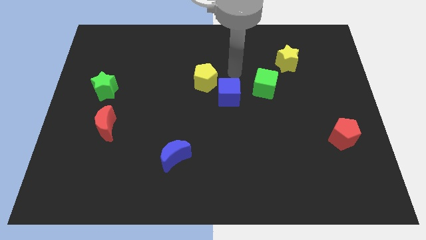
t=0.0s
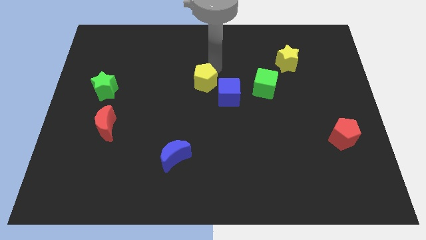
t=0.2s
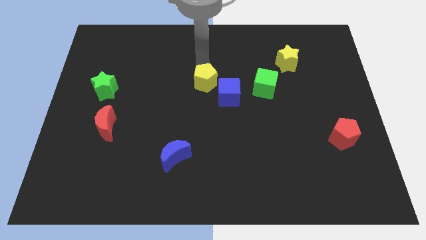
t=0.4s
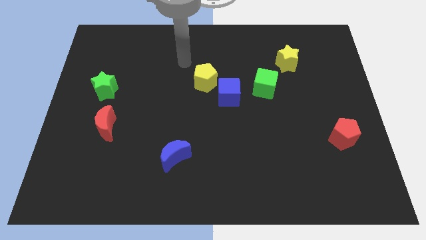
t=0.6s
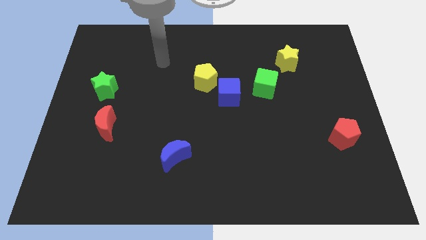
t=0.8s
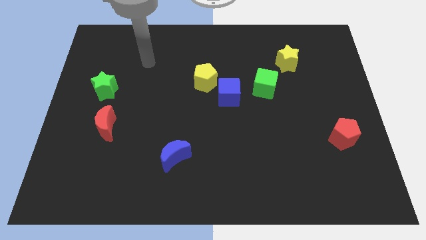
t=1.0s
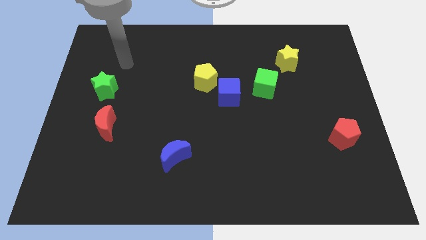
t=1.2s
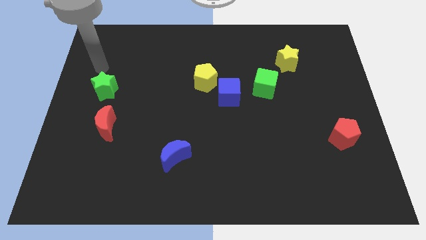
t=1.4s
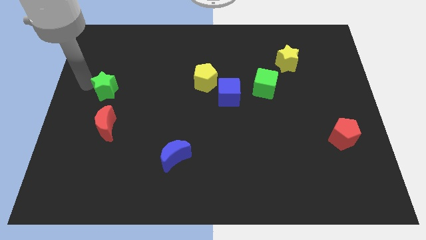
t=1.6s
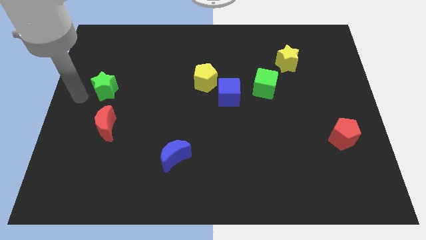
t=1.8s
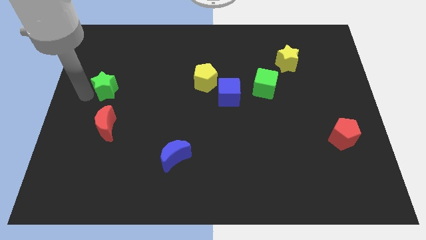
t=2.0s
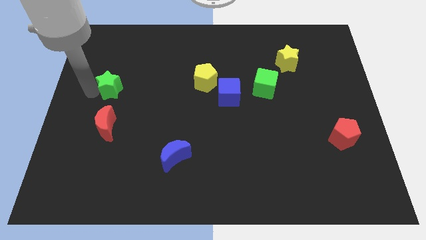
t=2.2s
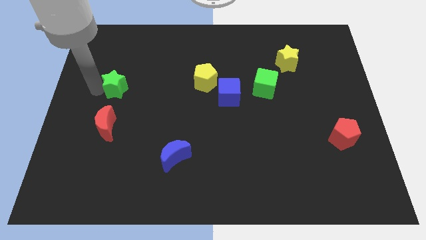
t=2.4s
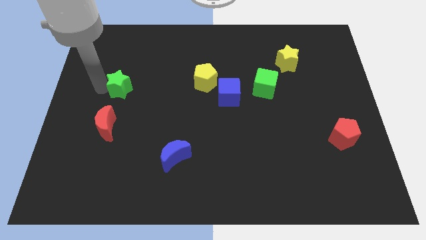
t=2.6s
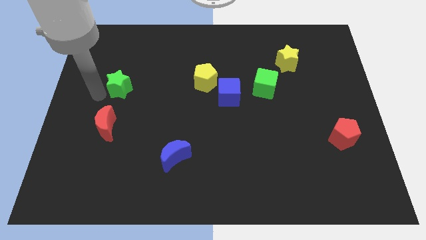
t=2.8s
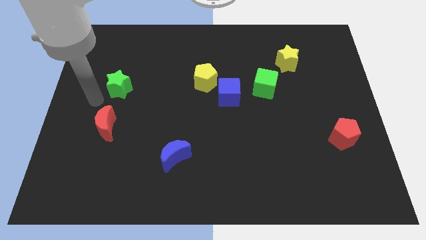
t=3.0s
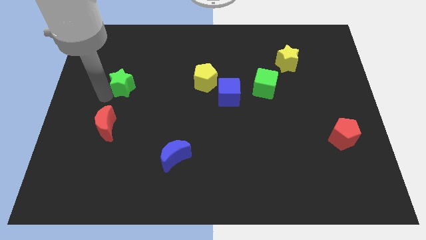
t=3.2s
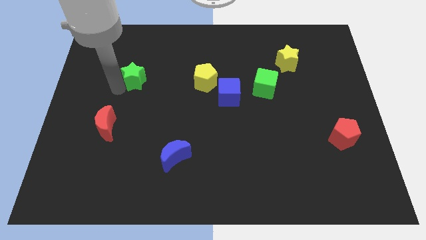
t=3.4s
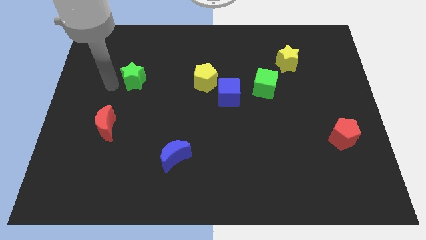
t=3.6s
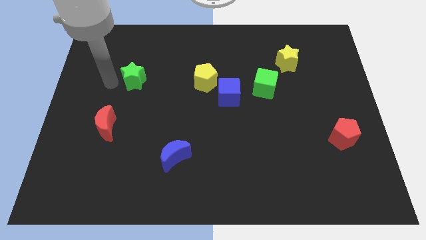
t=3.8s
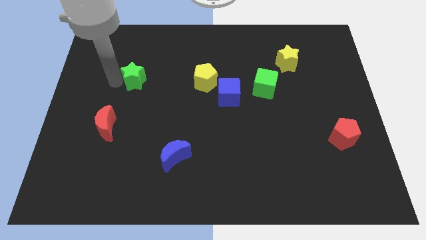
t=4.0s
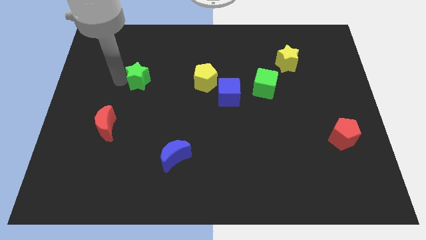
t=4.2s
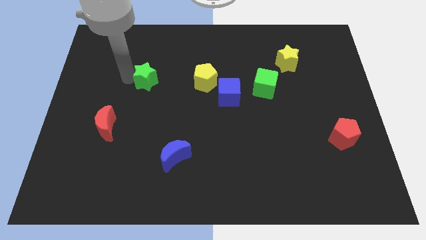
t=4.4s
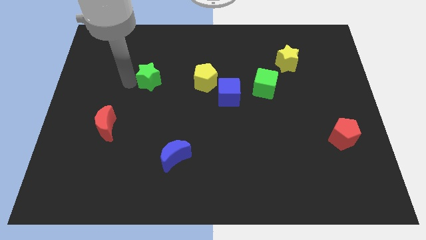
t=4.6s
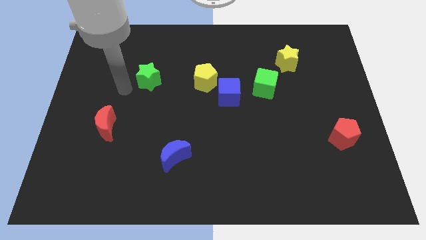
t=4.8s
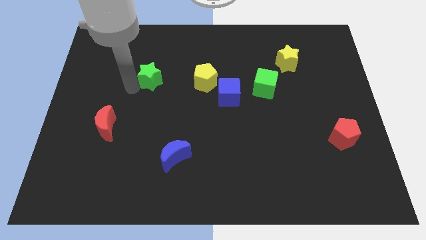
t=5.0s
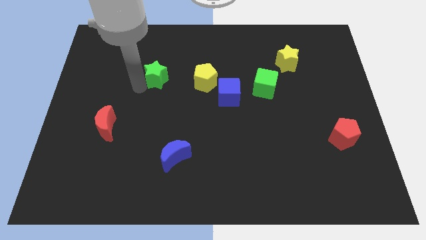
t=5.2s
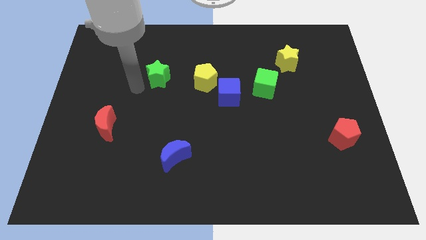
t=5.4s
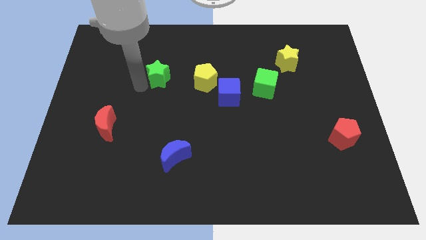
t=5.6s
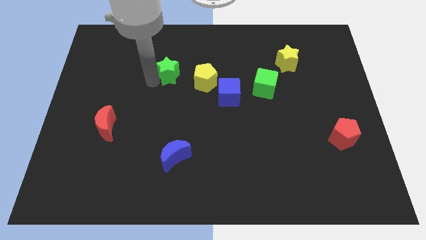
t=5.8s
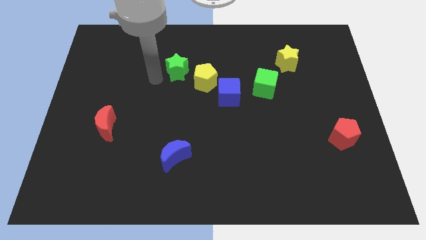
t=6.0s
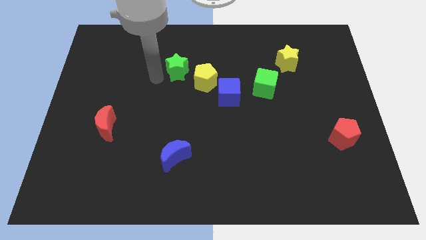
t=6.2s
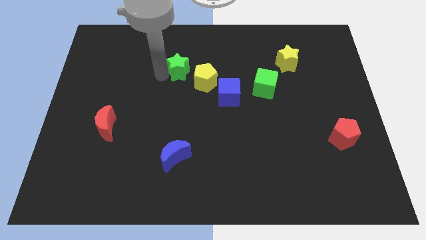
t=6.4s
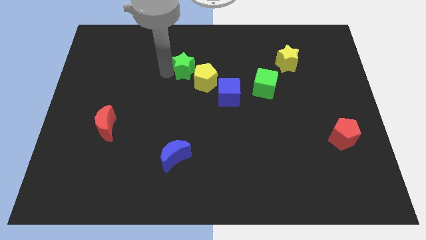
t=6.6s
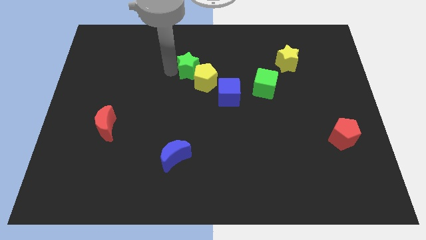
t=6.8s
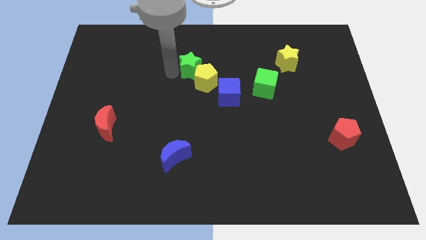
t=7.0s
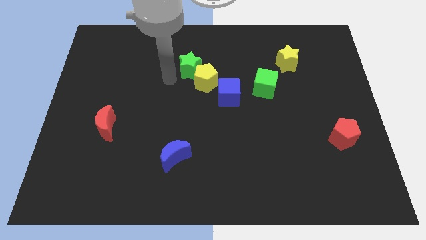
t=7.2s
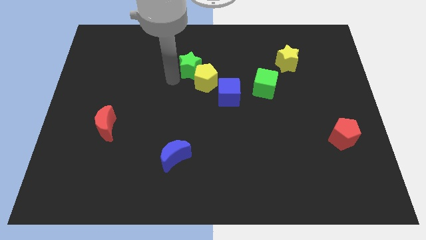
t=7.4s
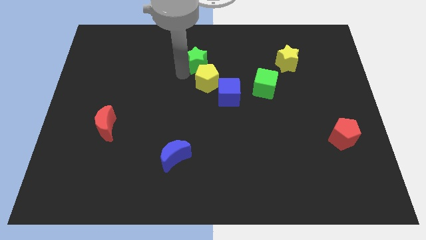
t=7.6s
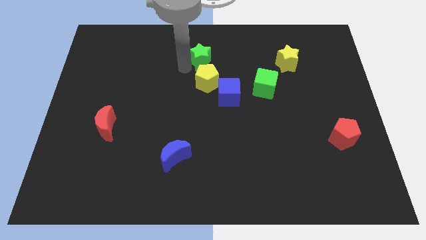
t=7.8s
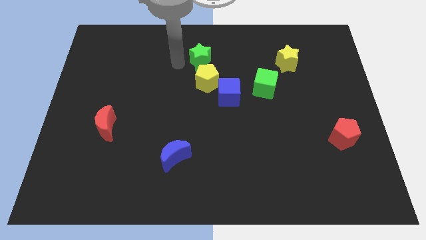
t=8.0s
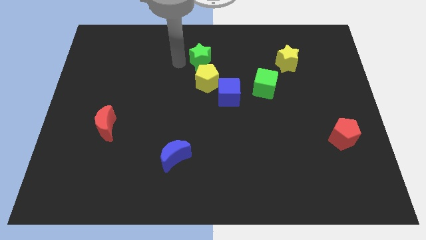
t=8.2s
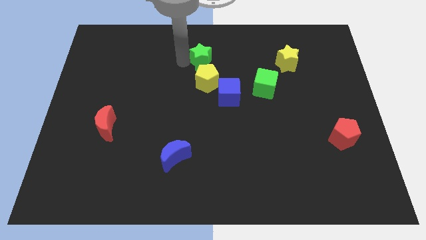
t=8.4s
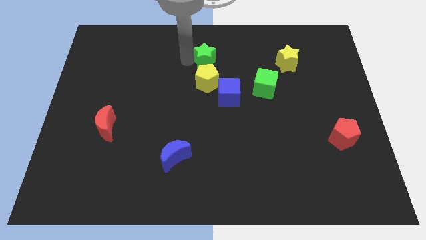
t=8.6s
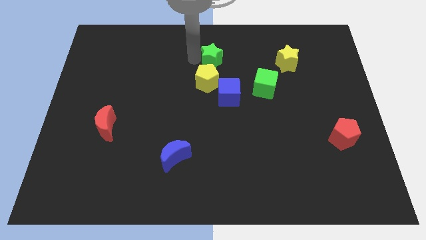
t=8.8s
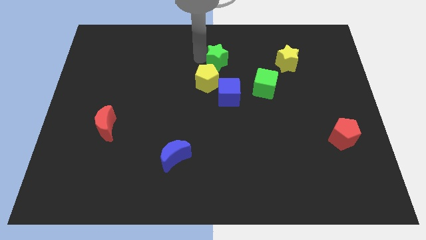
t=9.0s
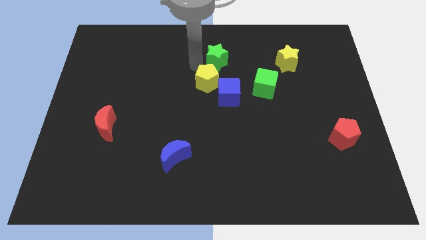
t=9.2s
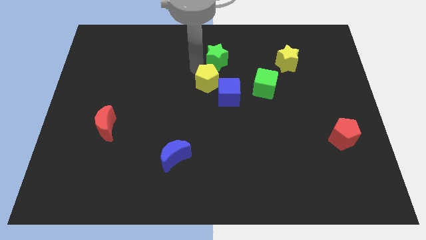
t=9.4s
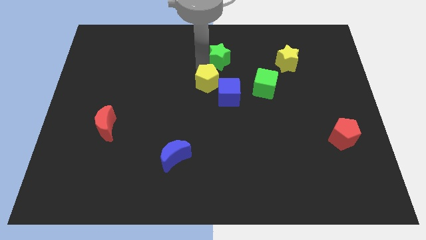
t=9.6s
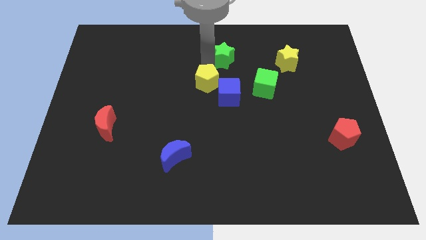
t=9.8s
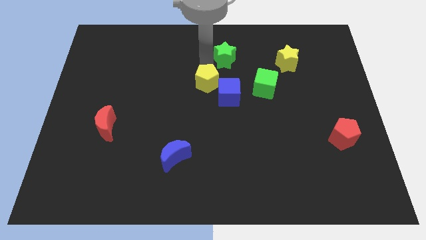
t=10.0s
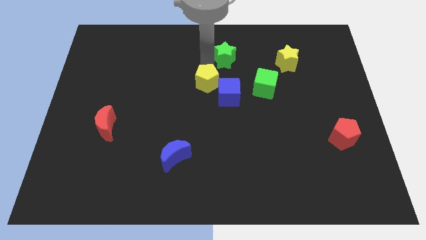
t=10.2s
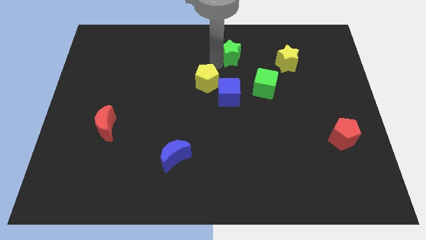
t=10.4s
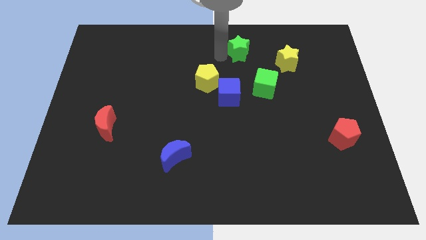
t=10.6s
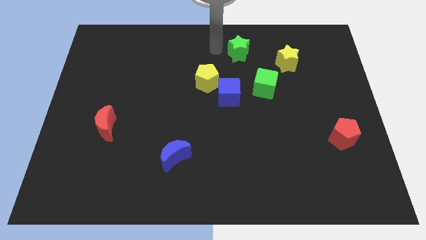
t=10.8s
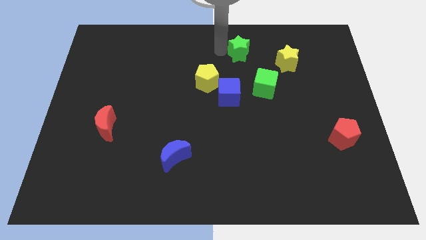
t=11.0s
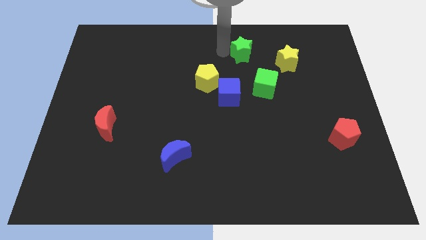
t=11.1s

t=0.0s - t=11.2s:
put the green star above the green cube

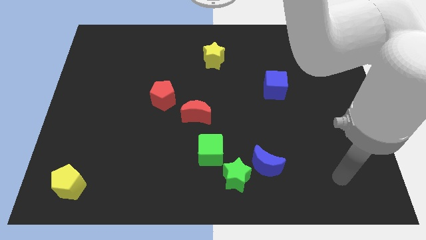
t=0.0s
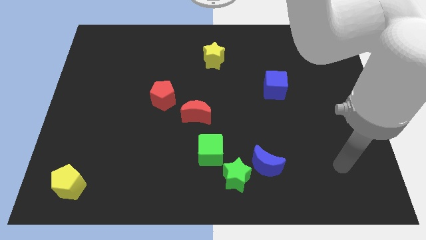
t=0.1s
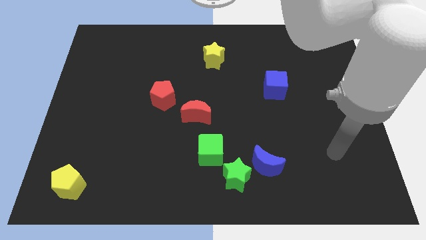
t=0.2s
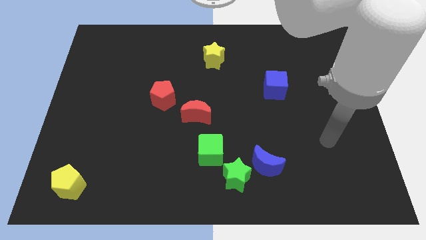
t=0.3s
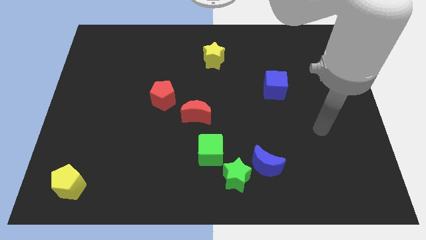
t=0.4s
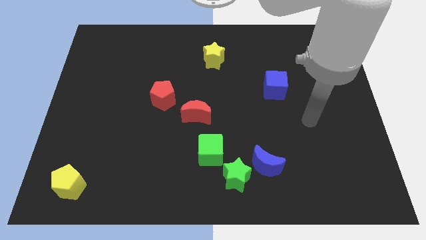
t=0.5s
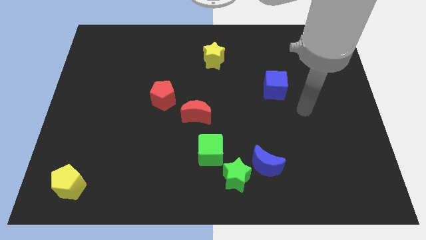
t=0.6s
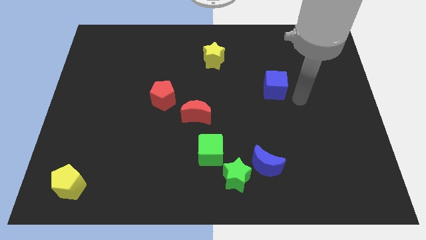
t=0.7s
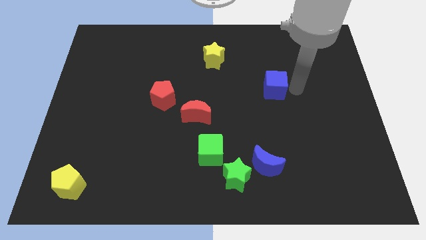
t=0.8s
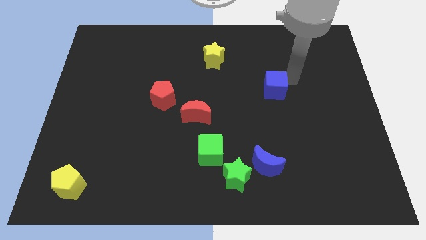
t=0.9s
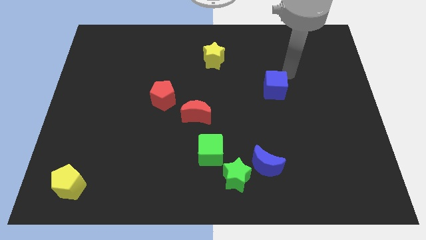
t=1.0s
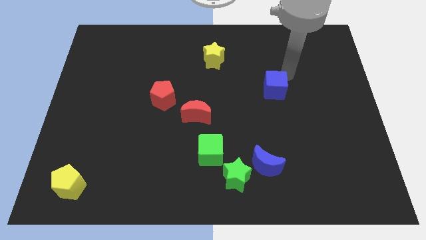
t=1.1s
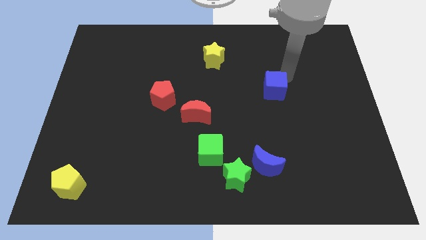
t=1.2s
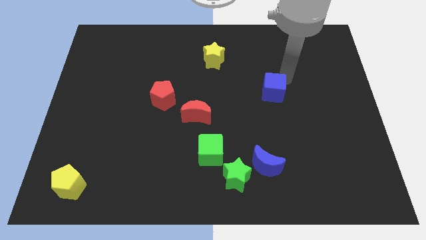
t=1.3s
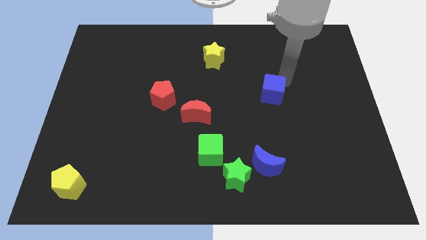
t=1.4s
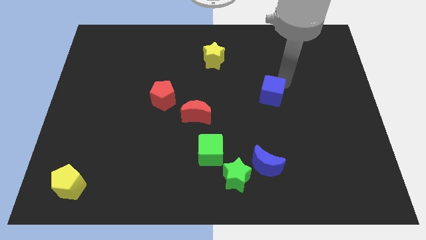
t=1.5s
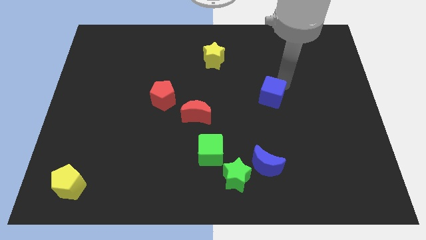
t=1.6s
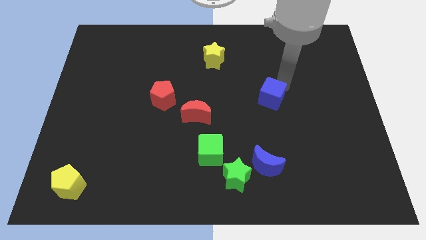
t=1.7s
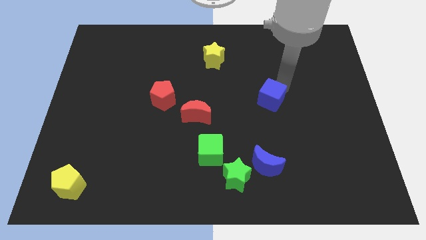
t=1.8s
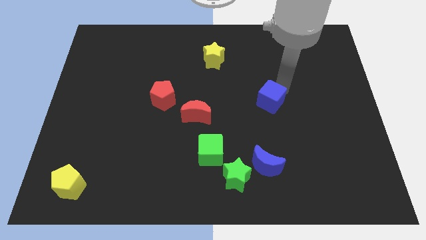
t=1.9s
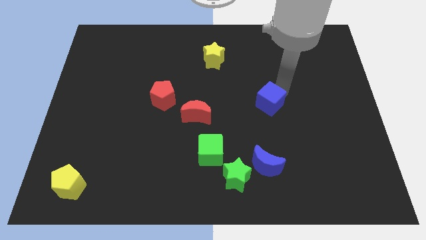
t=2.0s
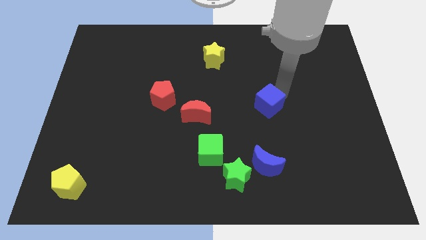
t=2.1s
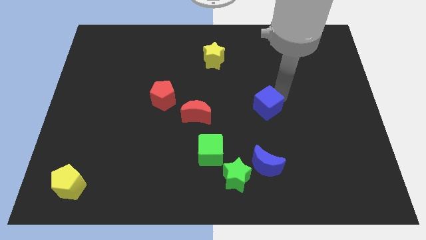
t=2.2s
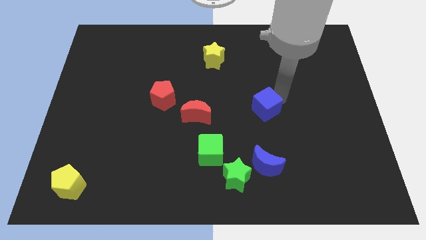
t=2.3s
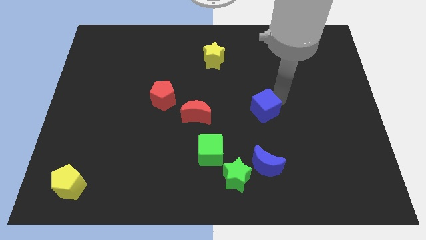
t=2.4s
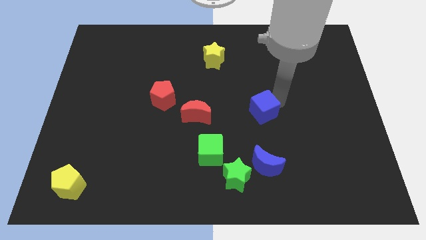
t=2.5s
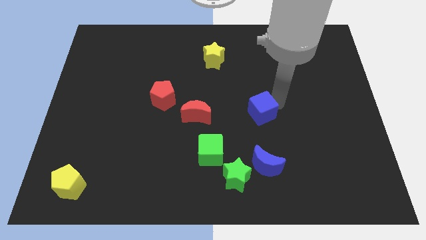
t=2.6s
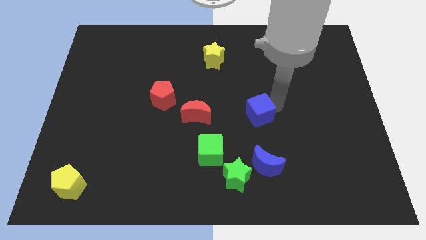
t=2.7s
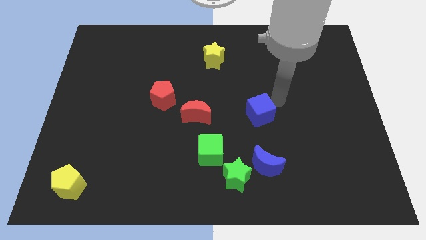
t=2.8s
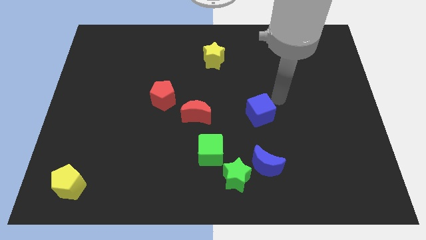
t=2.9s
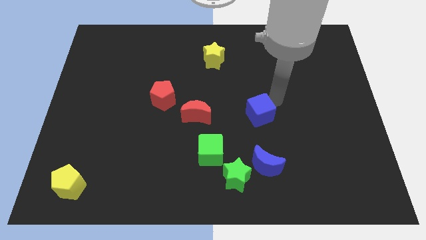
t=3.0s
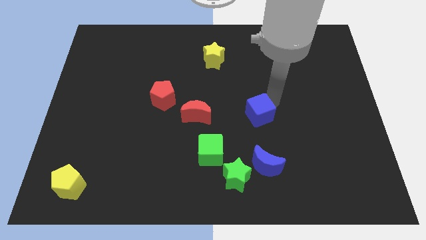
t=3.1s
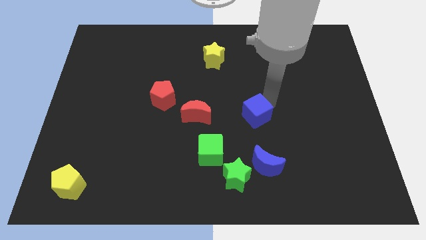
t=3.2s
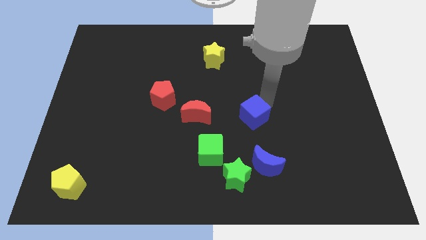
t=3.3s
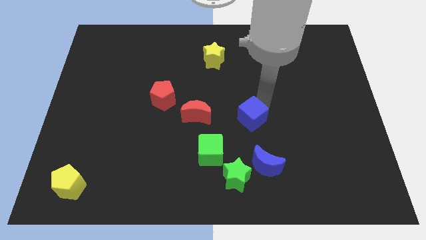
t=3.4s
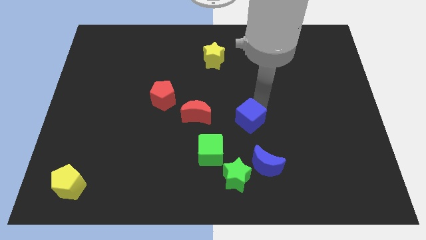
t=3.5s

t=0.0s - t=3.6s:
slide the blue cube diagonally up and to the right of the green cube
